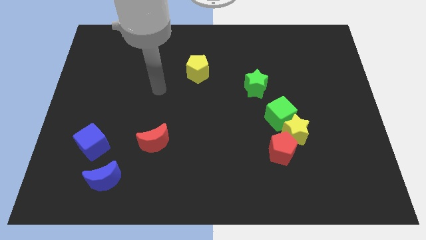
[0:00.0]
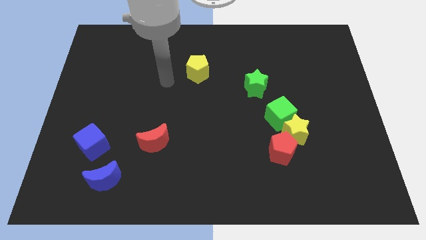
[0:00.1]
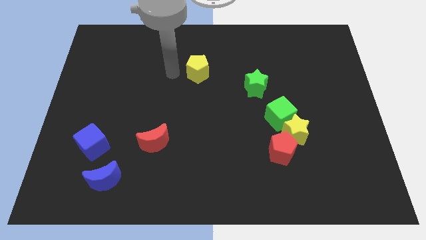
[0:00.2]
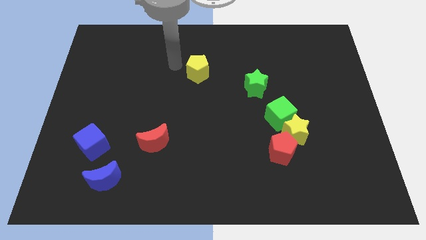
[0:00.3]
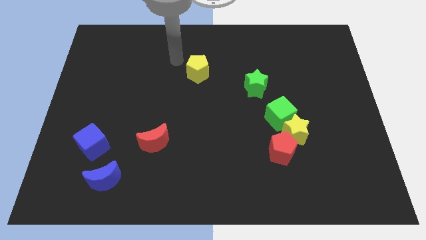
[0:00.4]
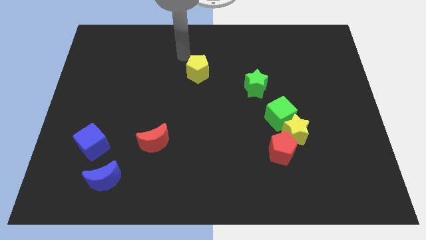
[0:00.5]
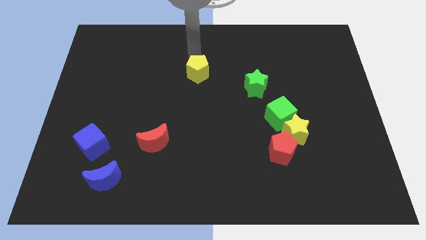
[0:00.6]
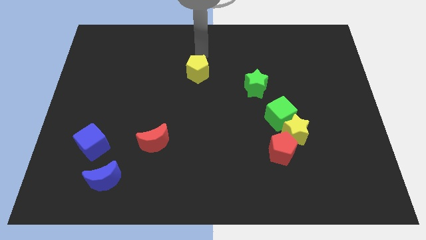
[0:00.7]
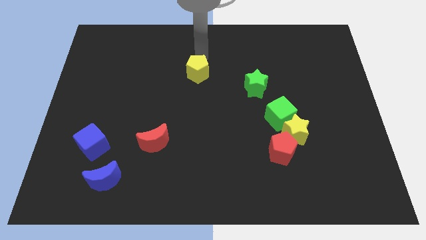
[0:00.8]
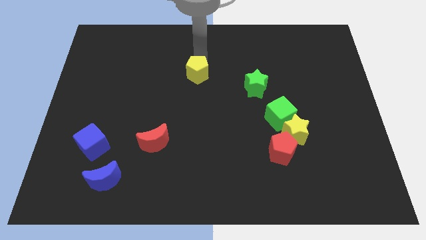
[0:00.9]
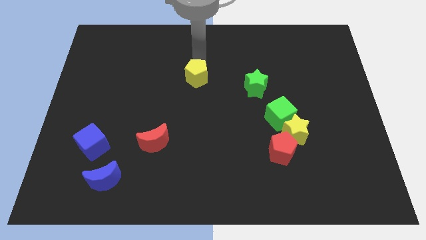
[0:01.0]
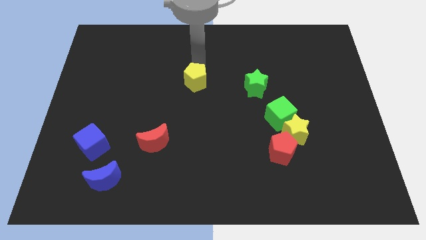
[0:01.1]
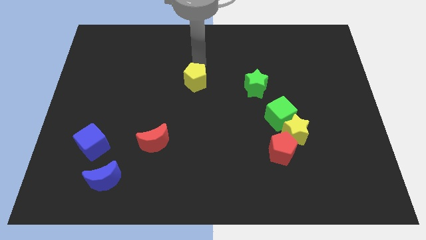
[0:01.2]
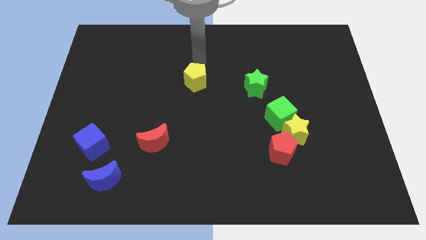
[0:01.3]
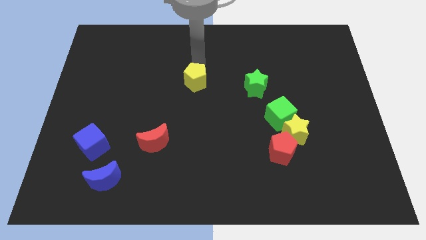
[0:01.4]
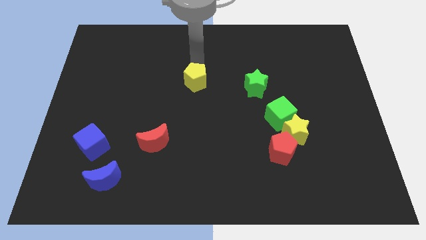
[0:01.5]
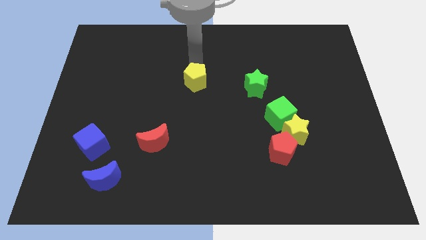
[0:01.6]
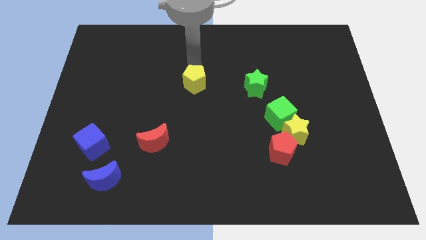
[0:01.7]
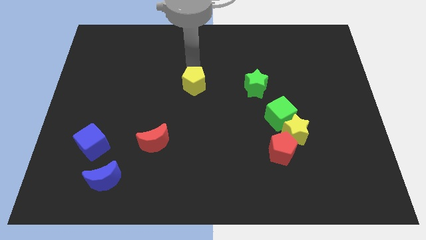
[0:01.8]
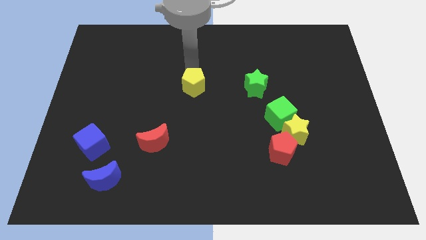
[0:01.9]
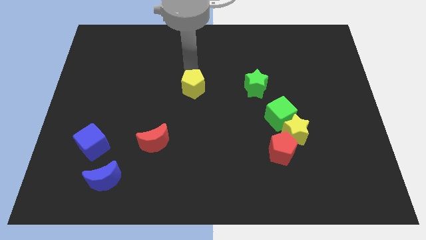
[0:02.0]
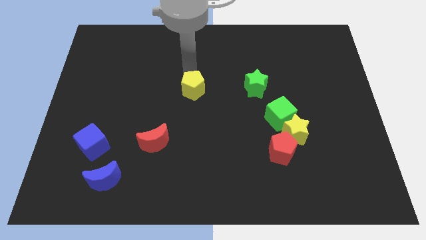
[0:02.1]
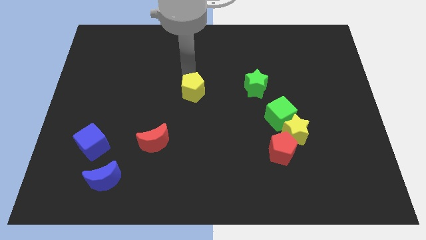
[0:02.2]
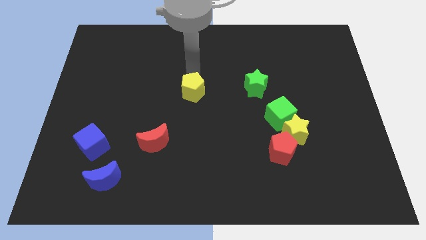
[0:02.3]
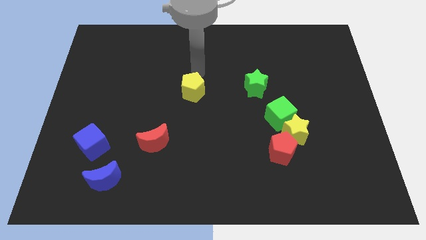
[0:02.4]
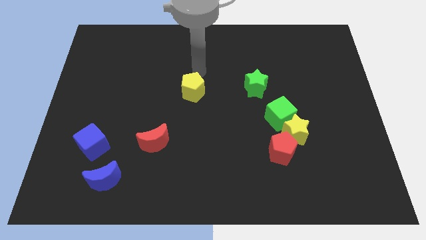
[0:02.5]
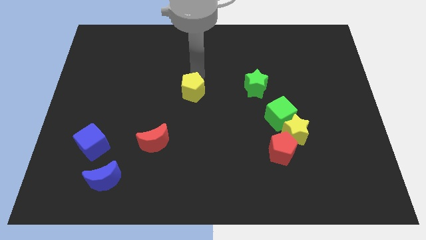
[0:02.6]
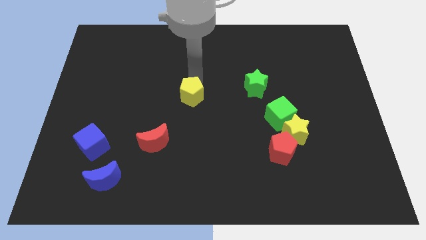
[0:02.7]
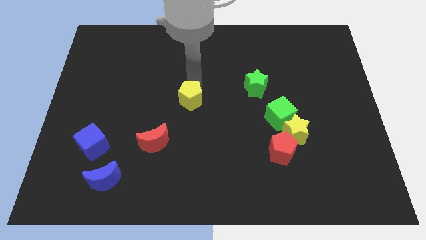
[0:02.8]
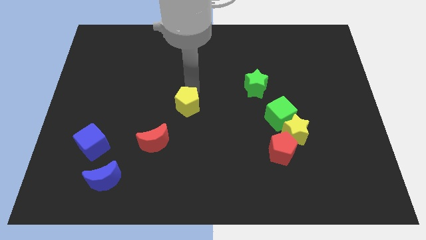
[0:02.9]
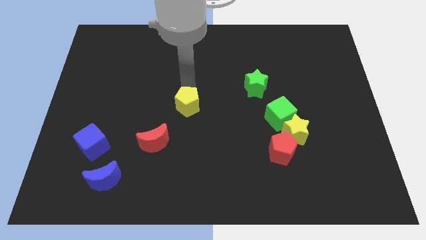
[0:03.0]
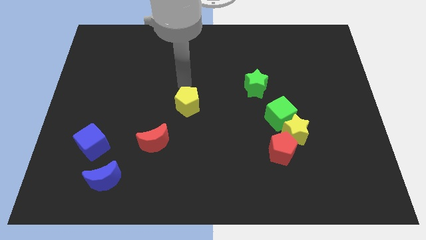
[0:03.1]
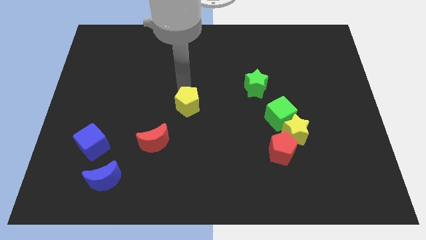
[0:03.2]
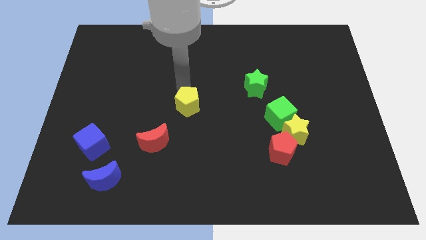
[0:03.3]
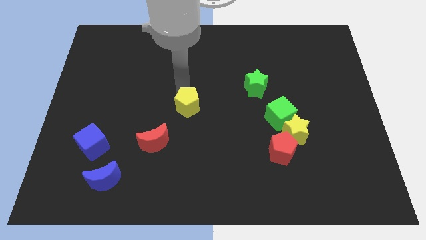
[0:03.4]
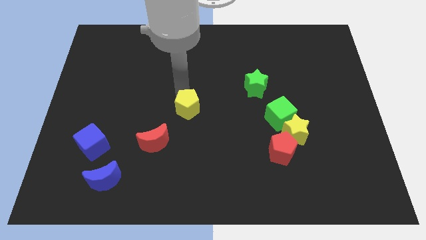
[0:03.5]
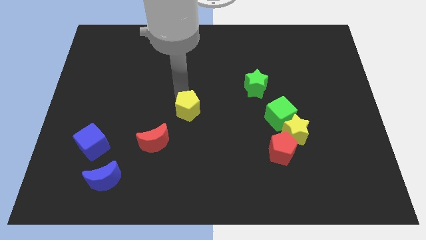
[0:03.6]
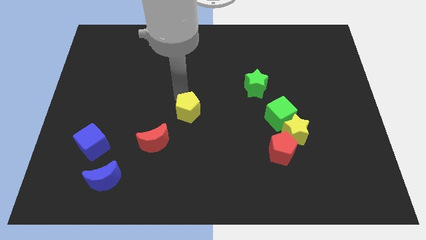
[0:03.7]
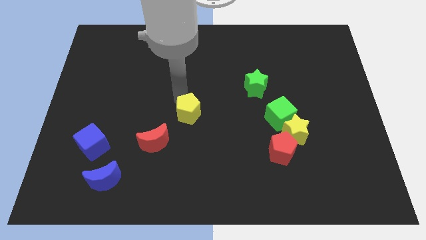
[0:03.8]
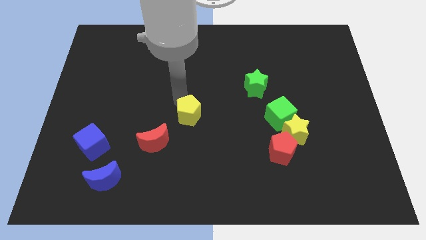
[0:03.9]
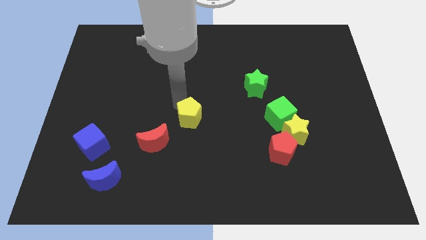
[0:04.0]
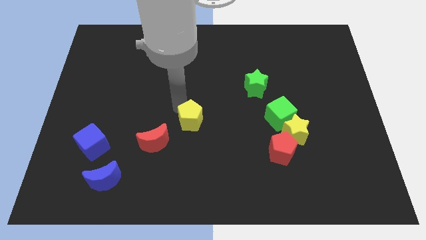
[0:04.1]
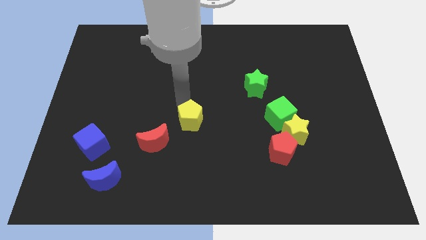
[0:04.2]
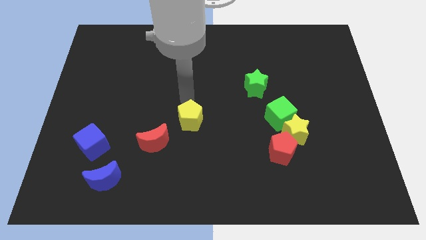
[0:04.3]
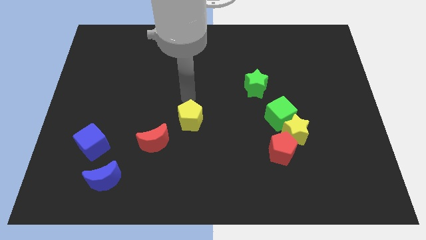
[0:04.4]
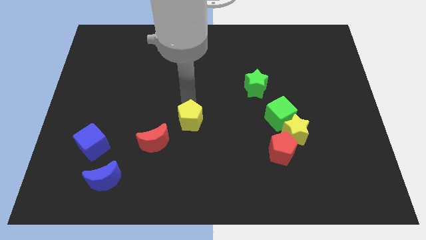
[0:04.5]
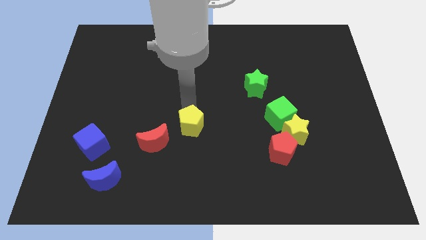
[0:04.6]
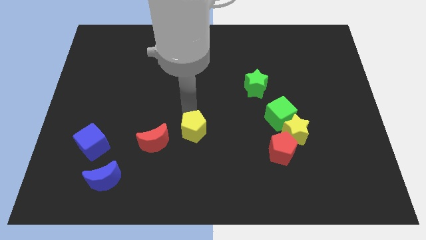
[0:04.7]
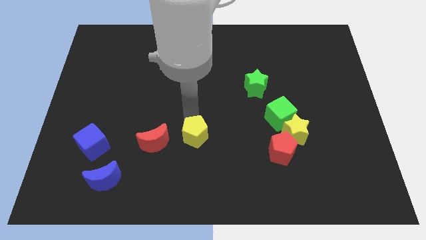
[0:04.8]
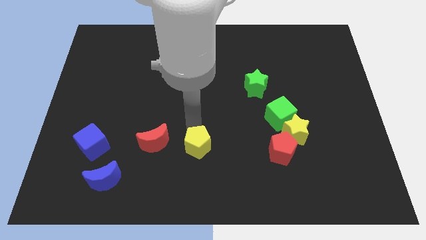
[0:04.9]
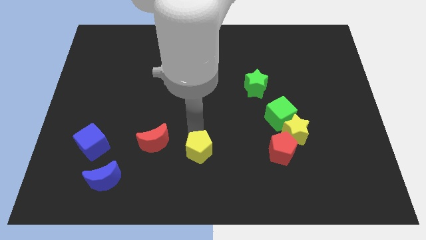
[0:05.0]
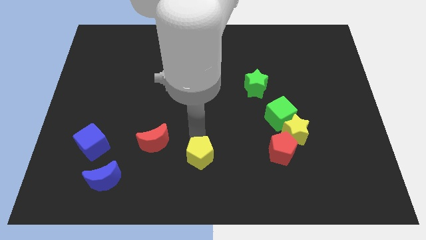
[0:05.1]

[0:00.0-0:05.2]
slide the yellow pentagon to the bottom

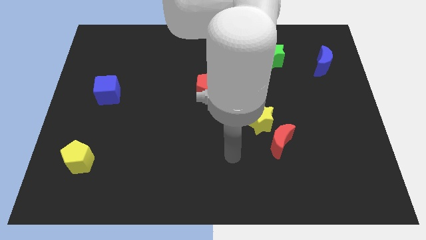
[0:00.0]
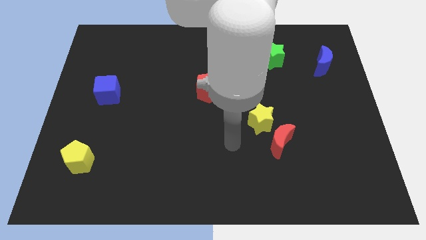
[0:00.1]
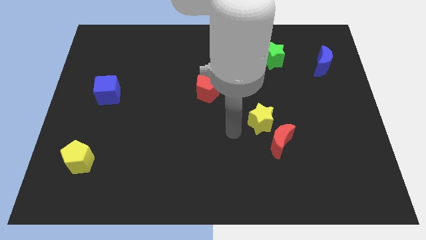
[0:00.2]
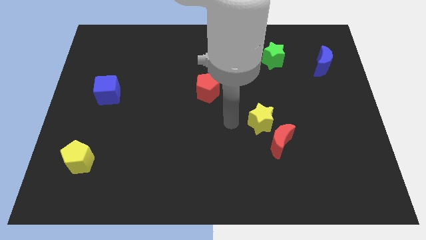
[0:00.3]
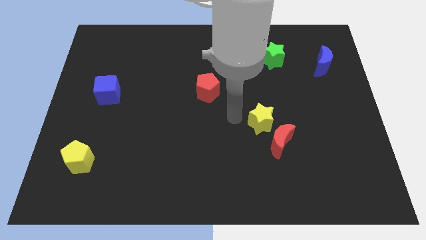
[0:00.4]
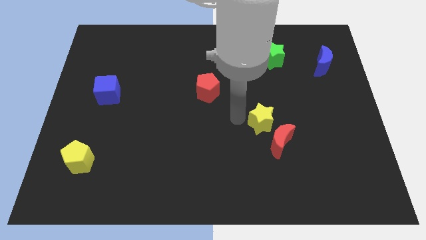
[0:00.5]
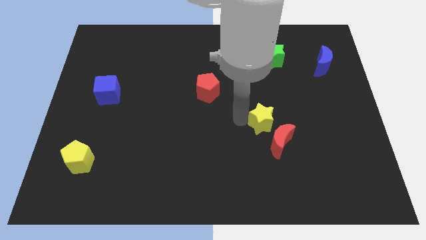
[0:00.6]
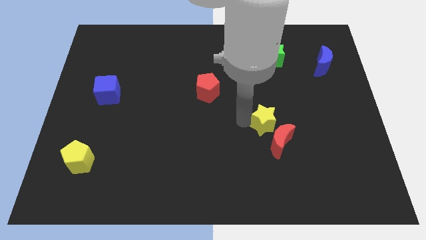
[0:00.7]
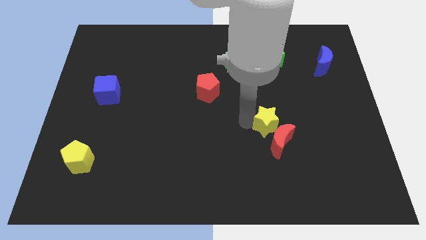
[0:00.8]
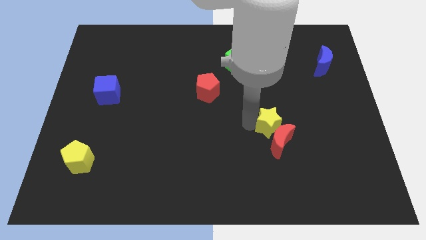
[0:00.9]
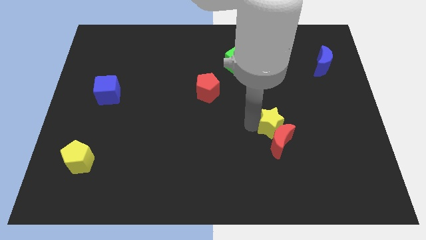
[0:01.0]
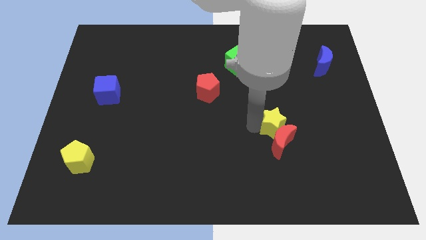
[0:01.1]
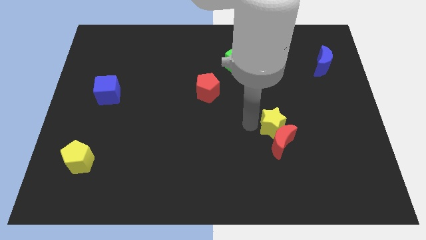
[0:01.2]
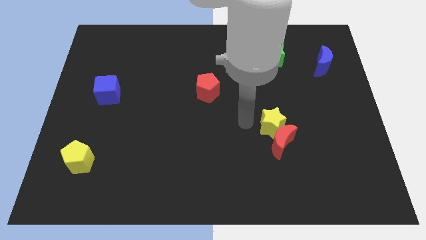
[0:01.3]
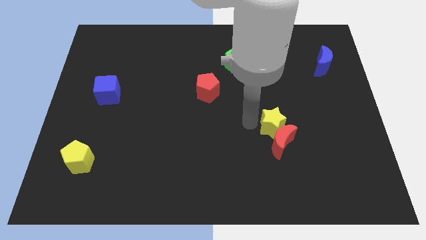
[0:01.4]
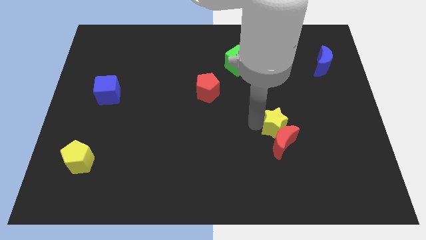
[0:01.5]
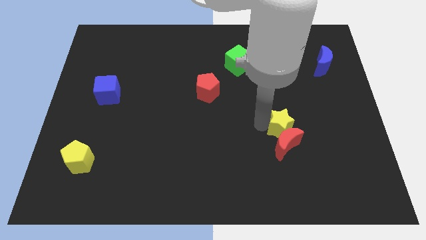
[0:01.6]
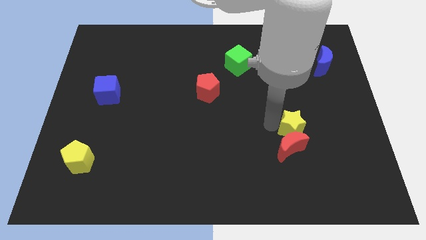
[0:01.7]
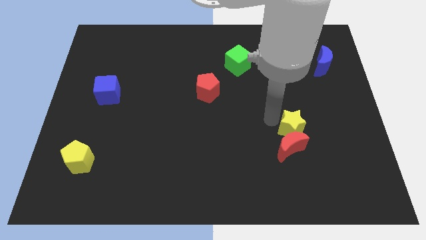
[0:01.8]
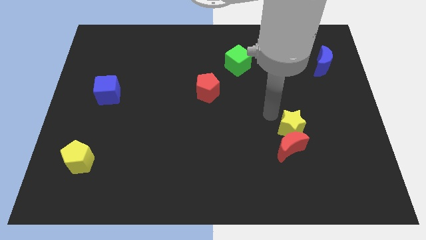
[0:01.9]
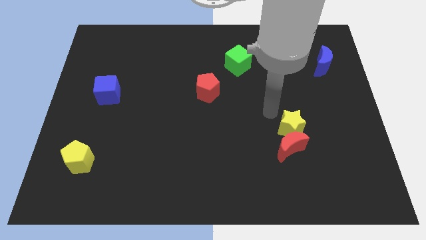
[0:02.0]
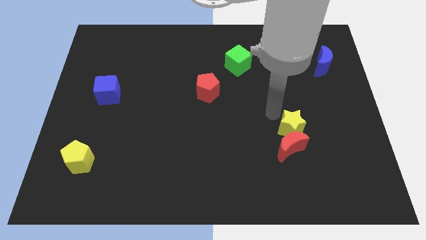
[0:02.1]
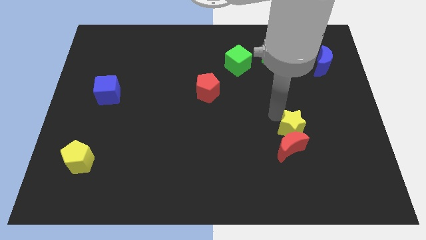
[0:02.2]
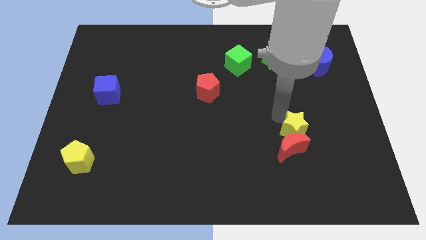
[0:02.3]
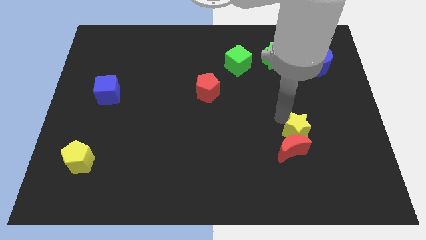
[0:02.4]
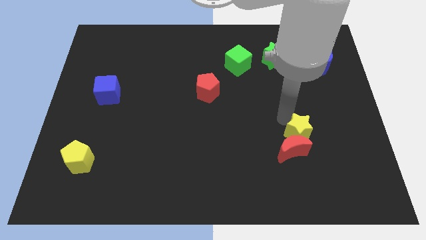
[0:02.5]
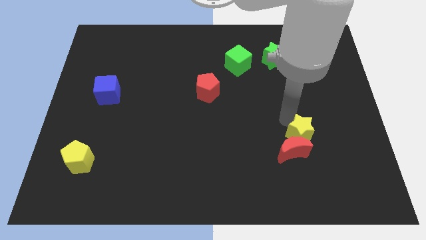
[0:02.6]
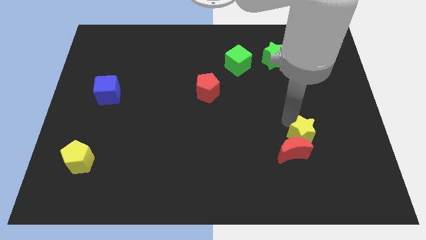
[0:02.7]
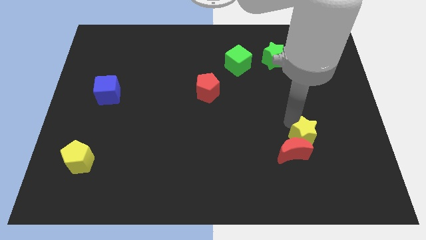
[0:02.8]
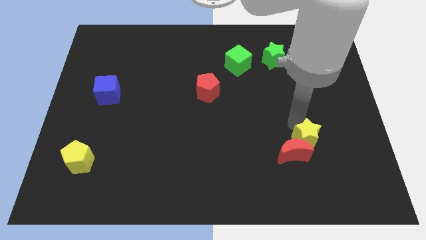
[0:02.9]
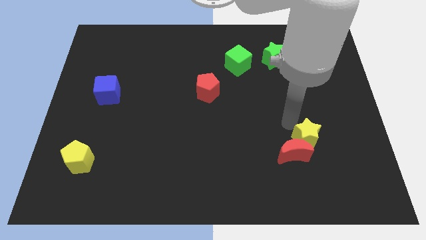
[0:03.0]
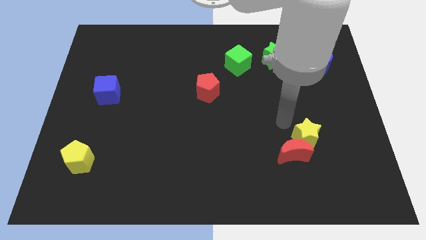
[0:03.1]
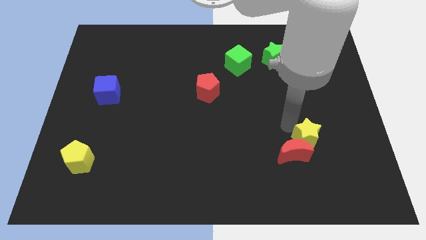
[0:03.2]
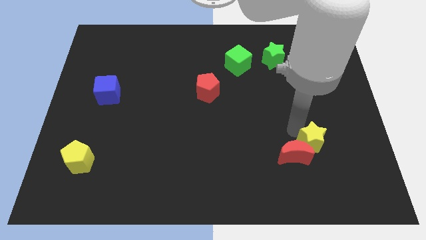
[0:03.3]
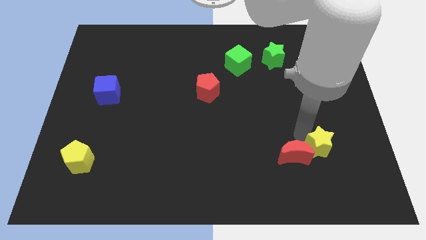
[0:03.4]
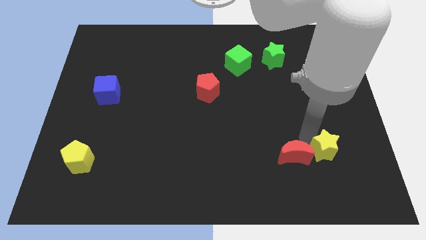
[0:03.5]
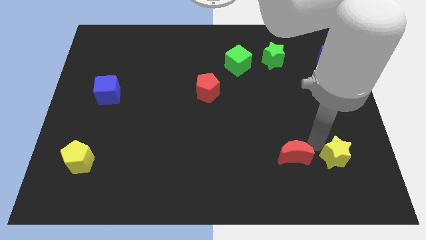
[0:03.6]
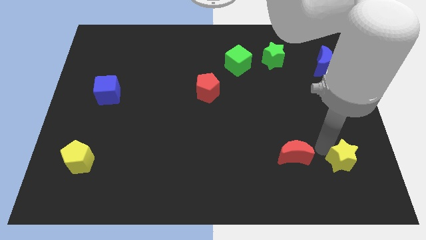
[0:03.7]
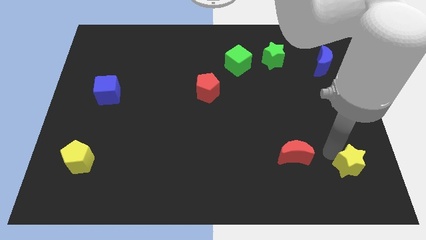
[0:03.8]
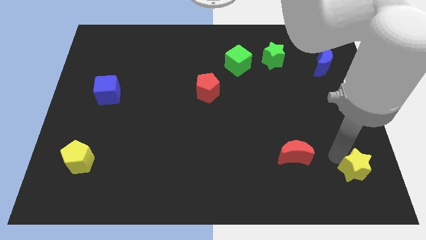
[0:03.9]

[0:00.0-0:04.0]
push the yellow star to the bottom right
